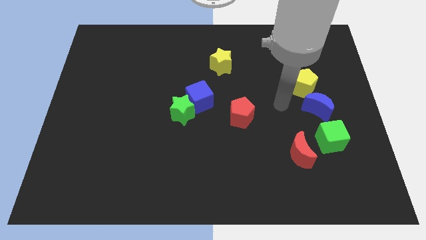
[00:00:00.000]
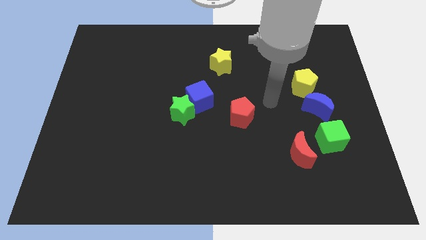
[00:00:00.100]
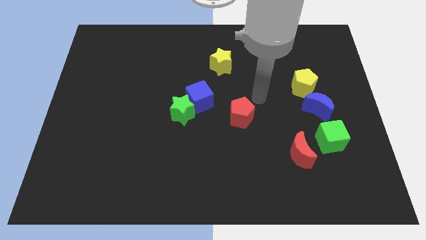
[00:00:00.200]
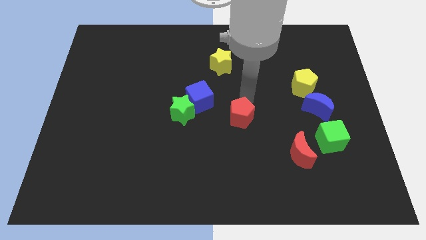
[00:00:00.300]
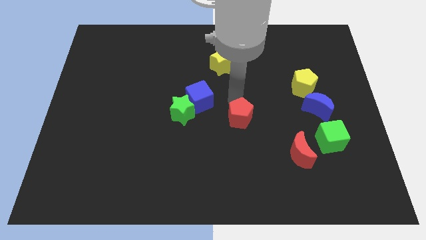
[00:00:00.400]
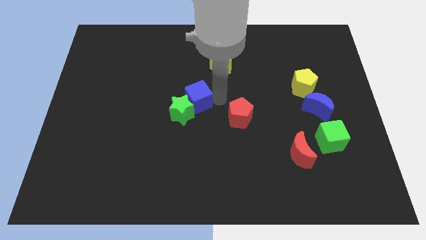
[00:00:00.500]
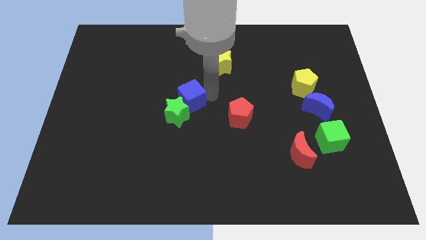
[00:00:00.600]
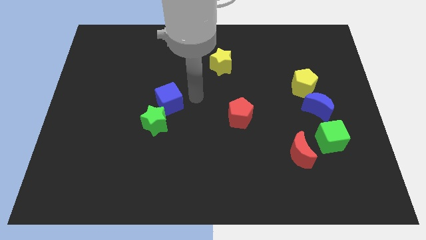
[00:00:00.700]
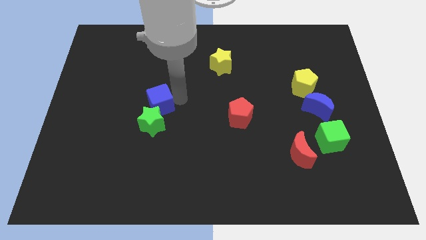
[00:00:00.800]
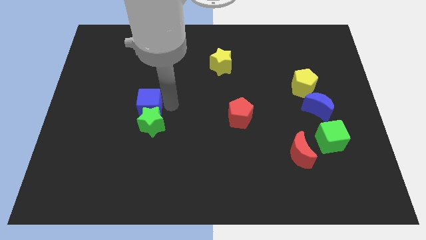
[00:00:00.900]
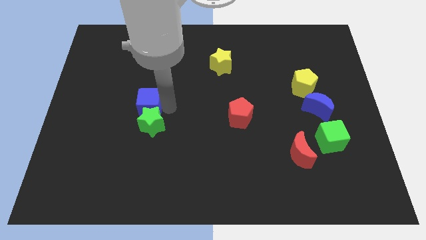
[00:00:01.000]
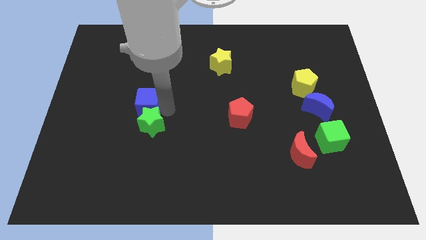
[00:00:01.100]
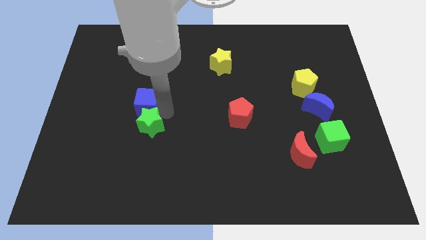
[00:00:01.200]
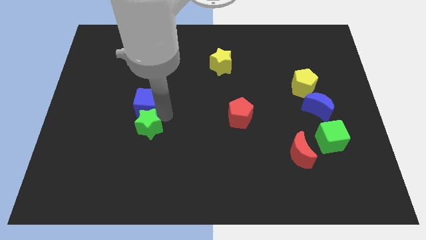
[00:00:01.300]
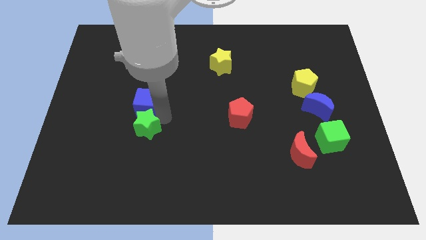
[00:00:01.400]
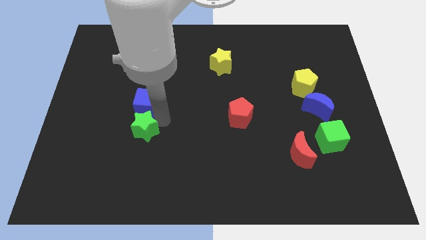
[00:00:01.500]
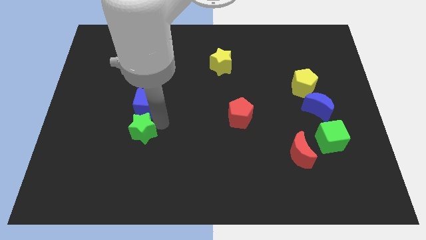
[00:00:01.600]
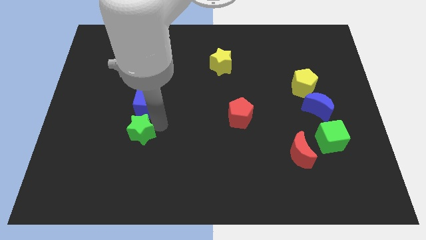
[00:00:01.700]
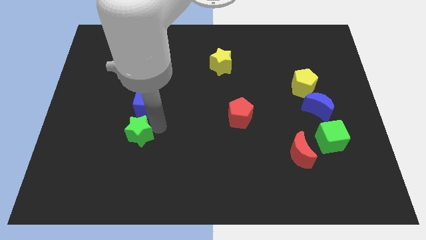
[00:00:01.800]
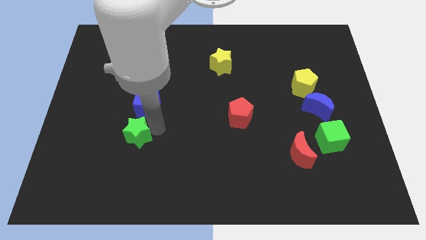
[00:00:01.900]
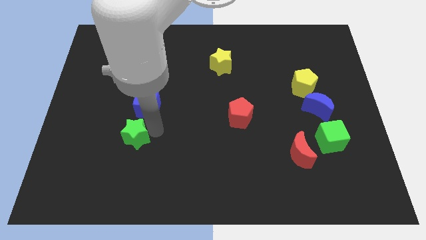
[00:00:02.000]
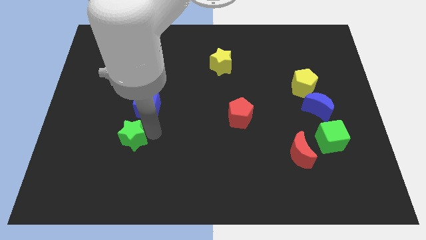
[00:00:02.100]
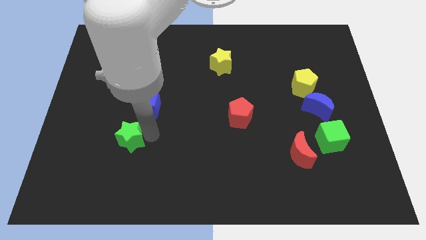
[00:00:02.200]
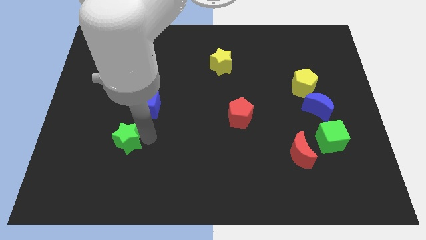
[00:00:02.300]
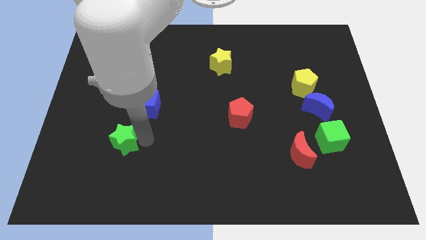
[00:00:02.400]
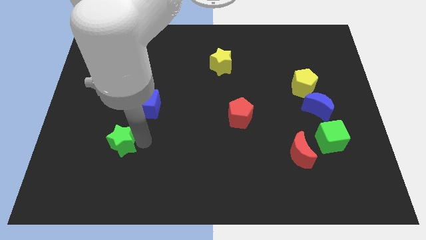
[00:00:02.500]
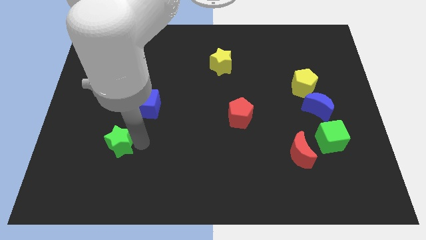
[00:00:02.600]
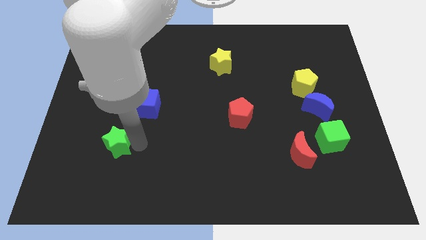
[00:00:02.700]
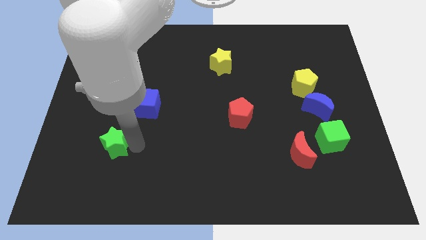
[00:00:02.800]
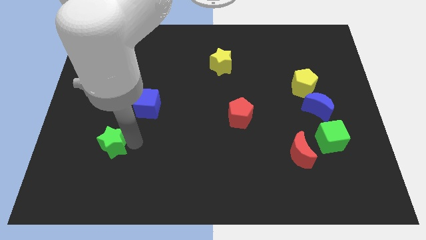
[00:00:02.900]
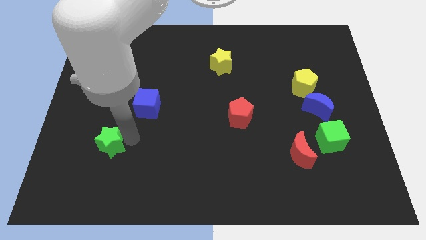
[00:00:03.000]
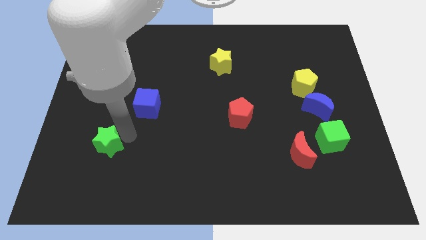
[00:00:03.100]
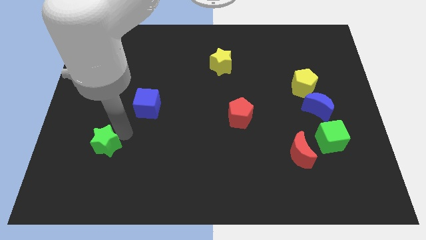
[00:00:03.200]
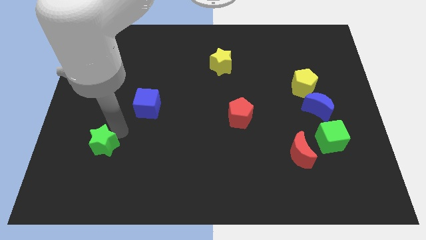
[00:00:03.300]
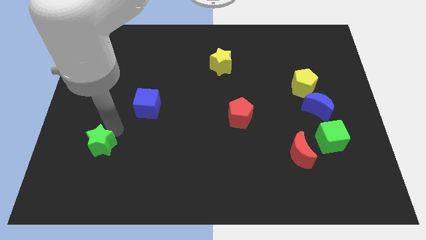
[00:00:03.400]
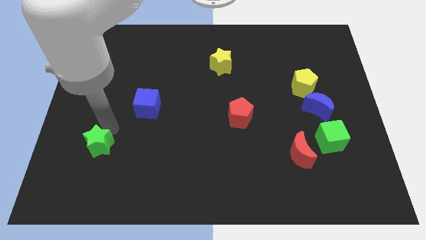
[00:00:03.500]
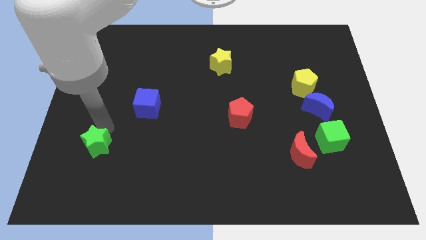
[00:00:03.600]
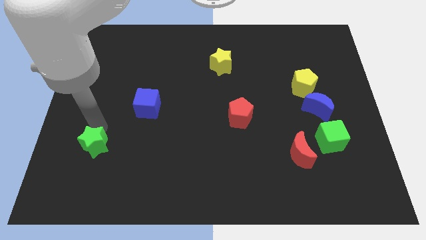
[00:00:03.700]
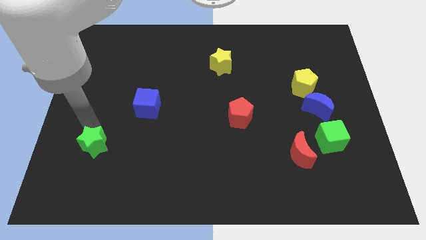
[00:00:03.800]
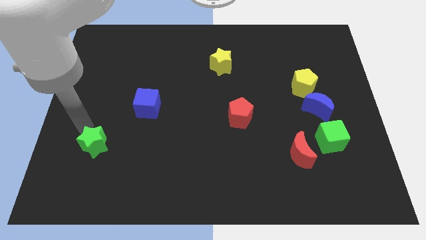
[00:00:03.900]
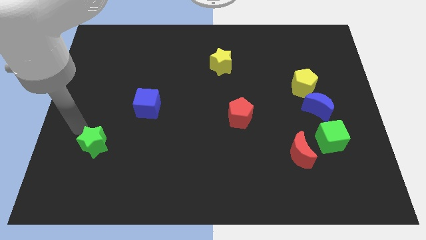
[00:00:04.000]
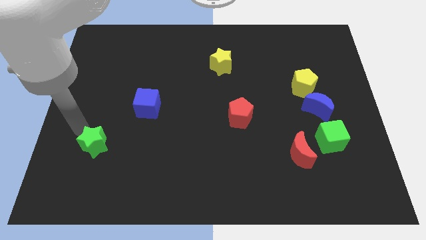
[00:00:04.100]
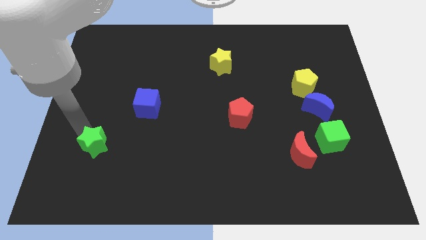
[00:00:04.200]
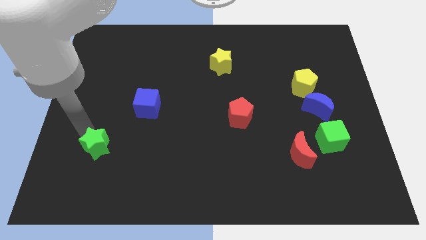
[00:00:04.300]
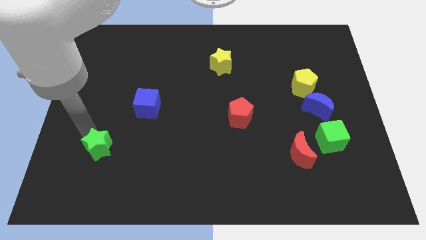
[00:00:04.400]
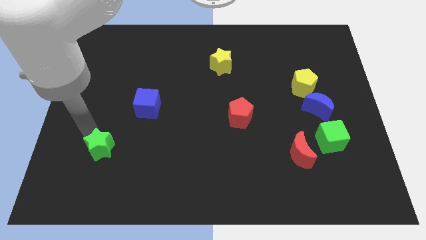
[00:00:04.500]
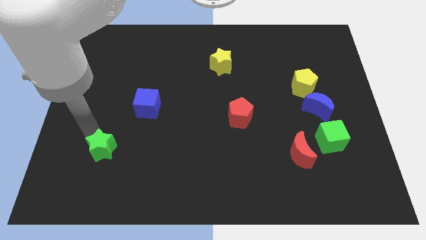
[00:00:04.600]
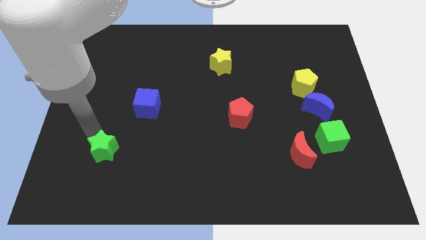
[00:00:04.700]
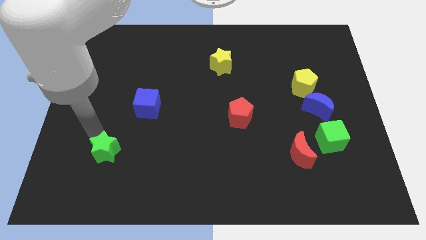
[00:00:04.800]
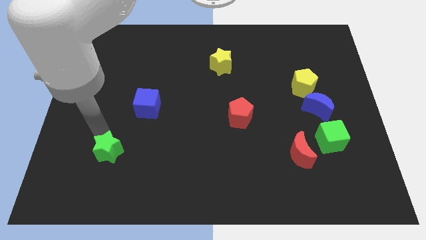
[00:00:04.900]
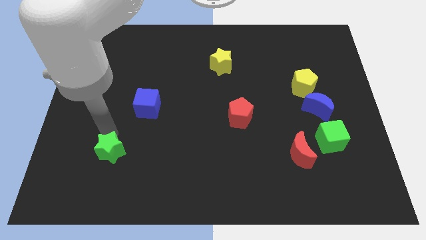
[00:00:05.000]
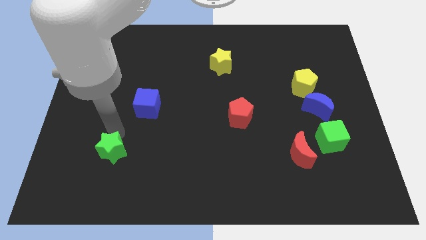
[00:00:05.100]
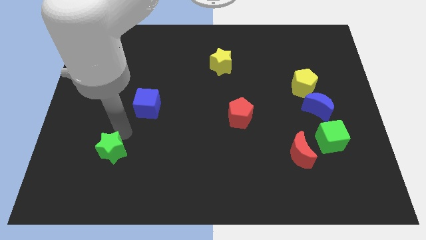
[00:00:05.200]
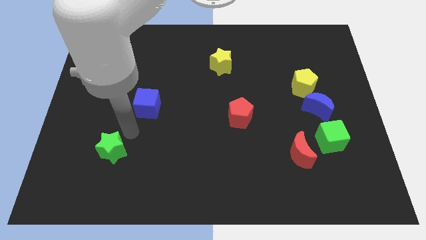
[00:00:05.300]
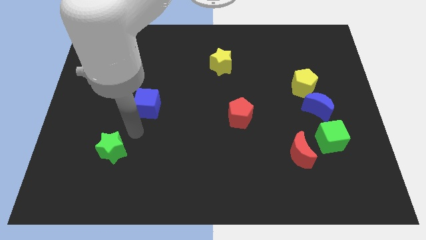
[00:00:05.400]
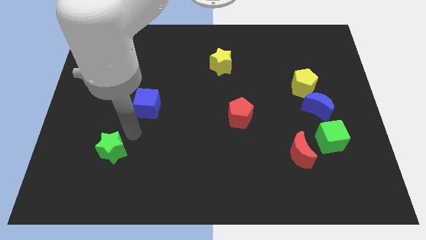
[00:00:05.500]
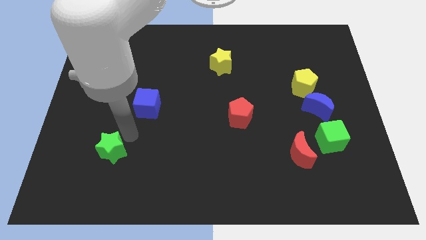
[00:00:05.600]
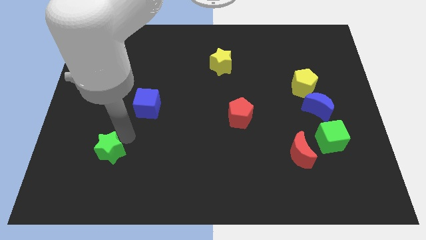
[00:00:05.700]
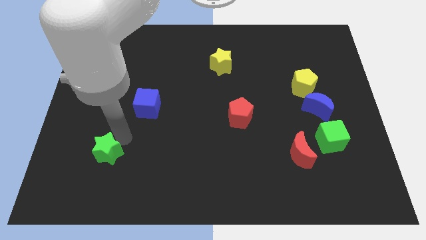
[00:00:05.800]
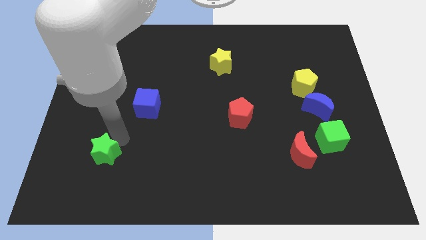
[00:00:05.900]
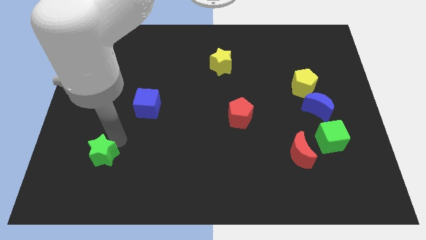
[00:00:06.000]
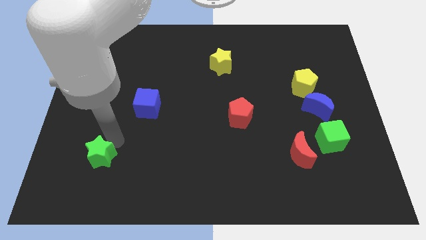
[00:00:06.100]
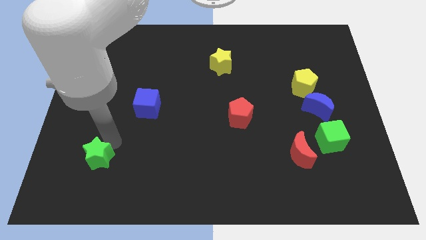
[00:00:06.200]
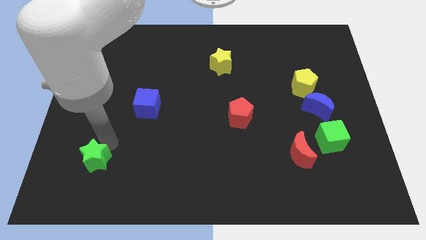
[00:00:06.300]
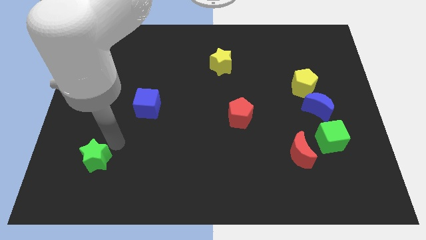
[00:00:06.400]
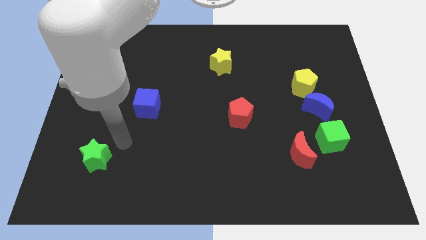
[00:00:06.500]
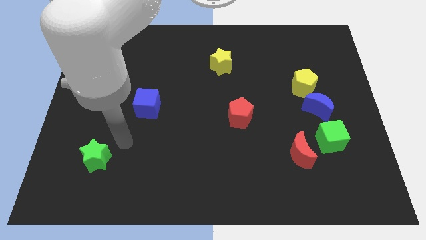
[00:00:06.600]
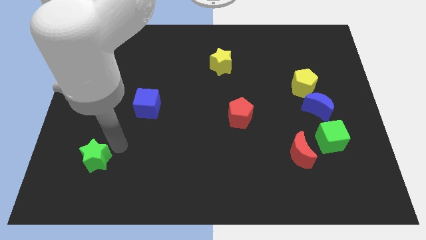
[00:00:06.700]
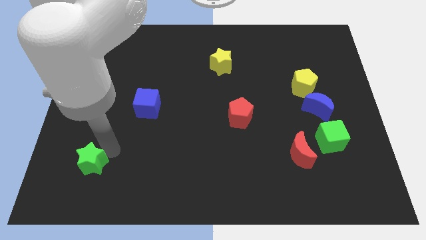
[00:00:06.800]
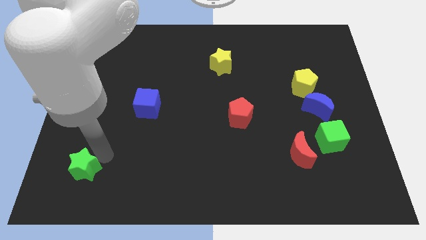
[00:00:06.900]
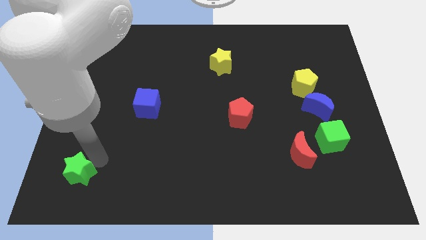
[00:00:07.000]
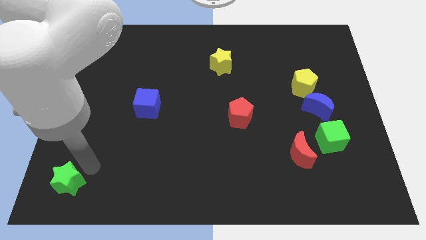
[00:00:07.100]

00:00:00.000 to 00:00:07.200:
move the green star to the bottom left
